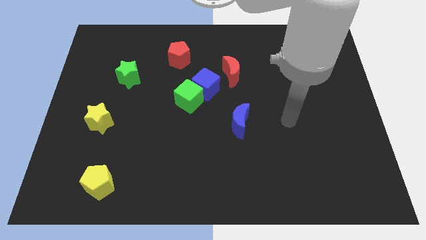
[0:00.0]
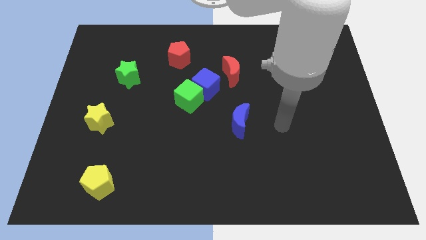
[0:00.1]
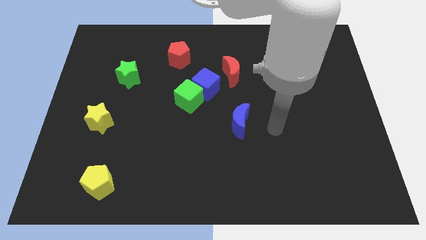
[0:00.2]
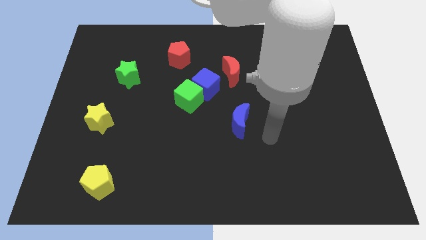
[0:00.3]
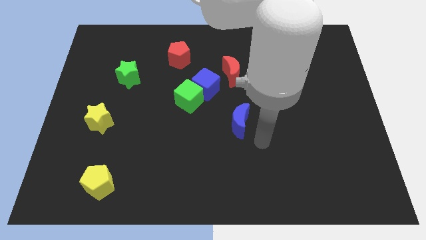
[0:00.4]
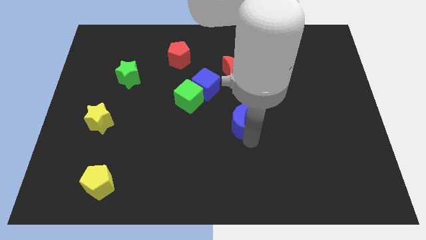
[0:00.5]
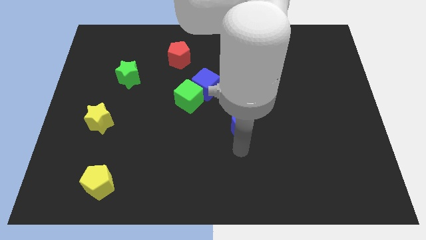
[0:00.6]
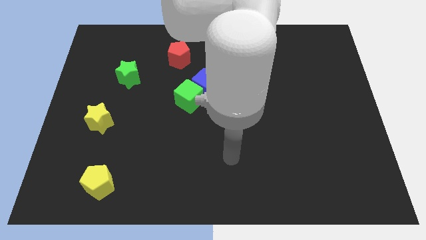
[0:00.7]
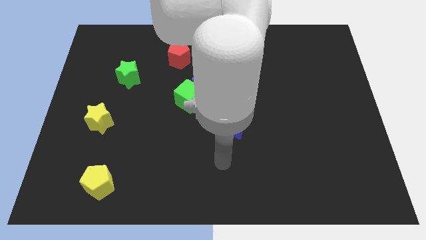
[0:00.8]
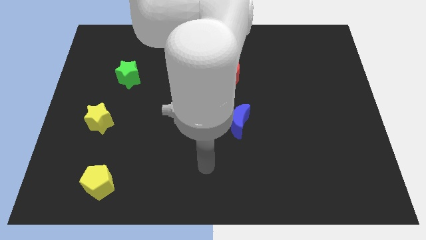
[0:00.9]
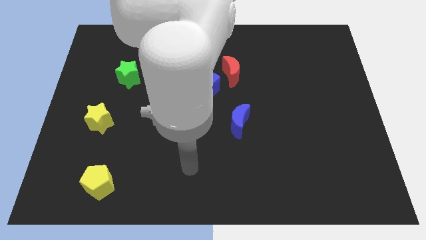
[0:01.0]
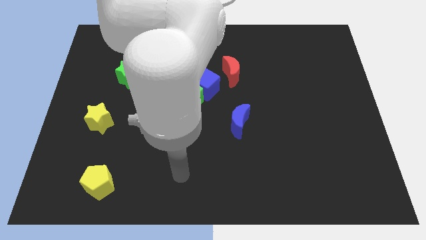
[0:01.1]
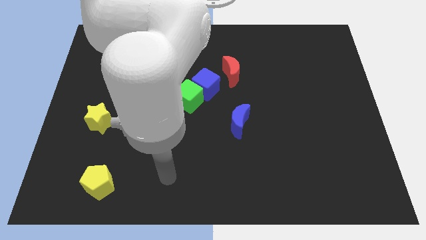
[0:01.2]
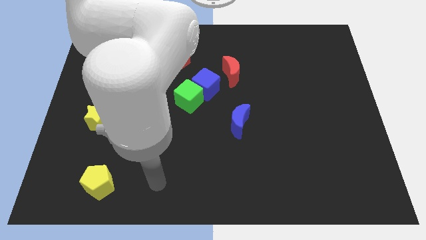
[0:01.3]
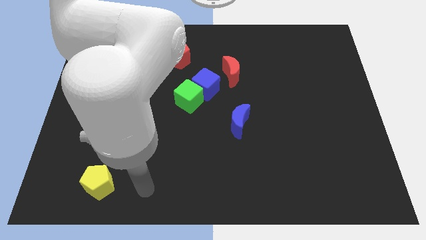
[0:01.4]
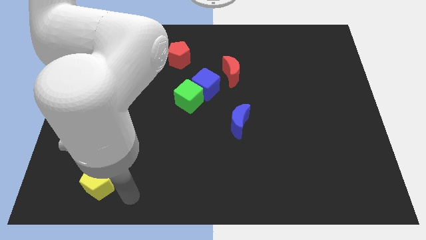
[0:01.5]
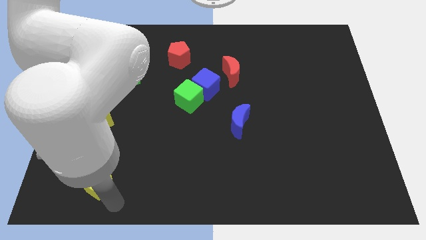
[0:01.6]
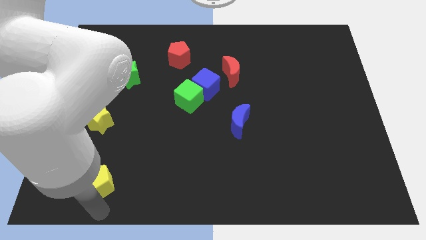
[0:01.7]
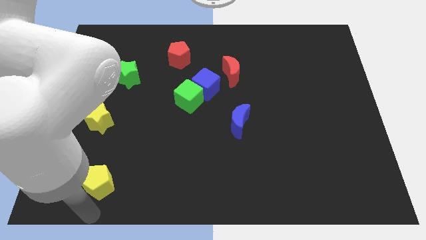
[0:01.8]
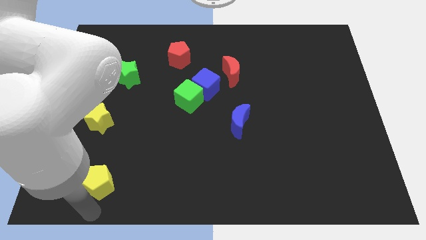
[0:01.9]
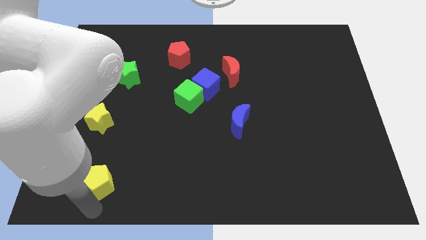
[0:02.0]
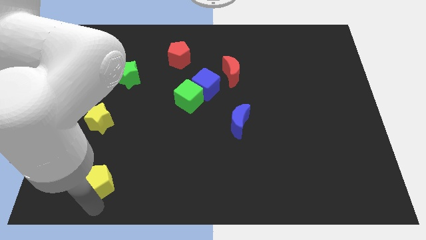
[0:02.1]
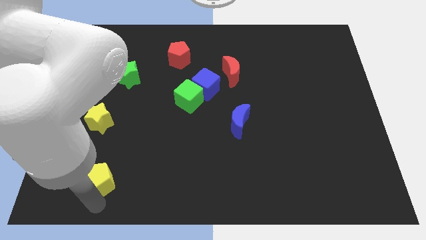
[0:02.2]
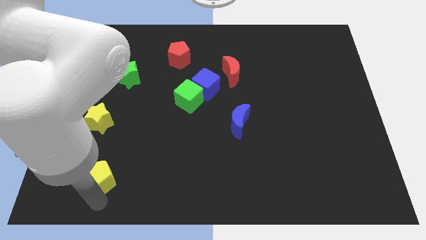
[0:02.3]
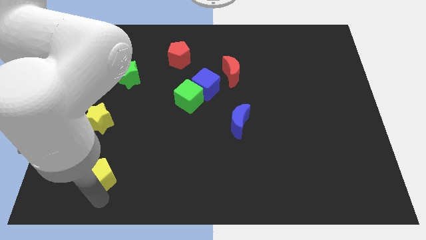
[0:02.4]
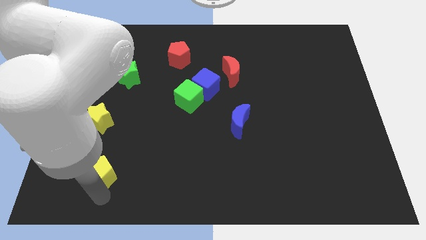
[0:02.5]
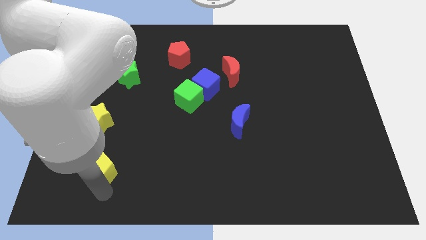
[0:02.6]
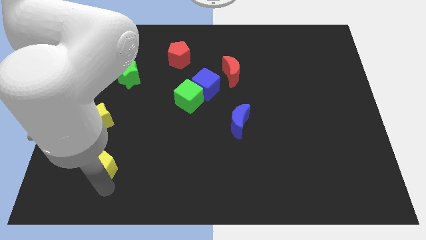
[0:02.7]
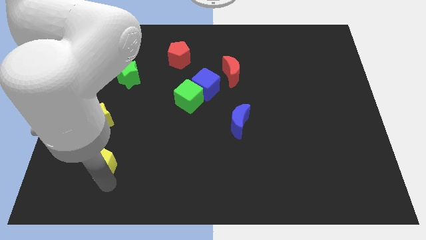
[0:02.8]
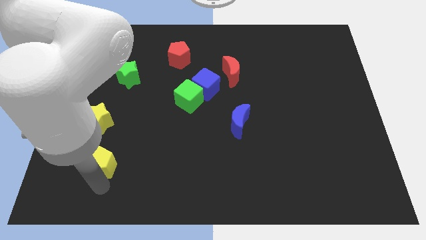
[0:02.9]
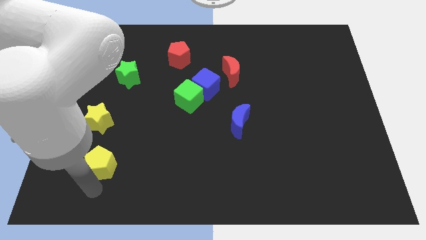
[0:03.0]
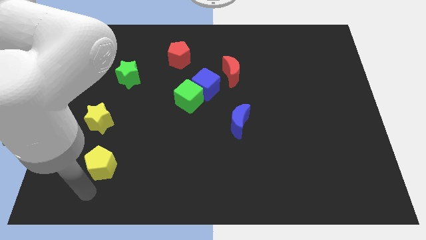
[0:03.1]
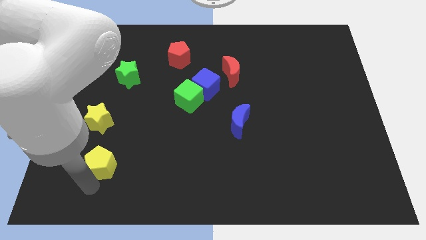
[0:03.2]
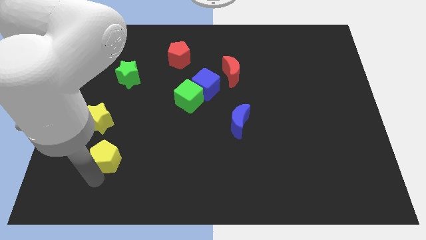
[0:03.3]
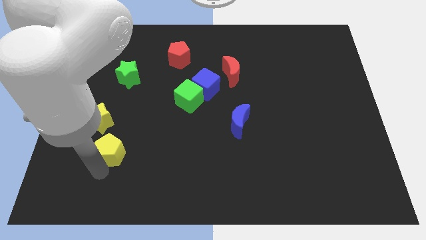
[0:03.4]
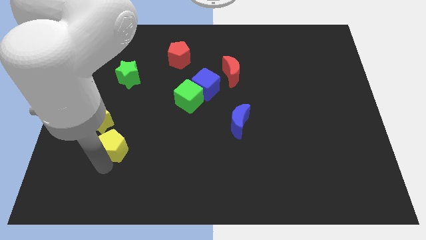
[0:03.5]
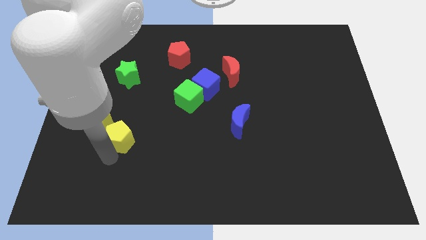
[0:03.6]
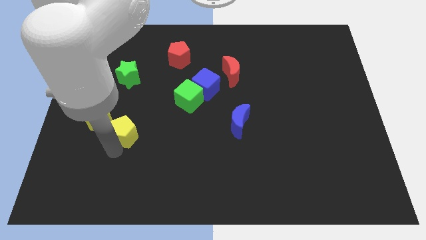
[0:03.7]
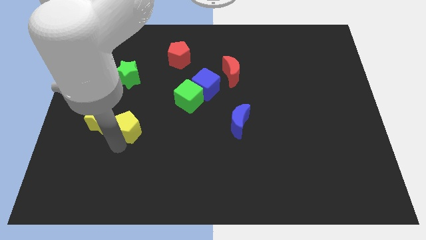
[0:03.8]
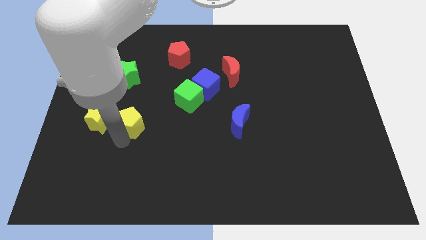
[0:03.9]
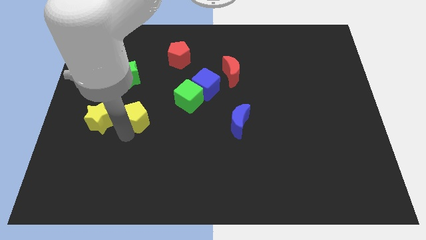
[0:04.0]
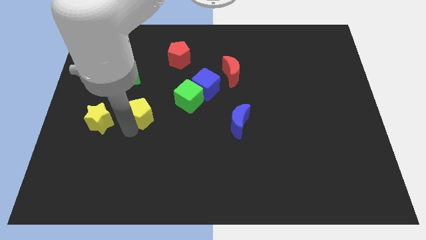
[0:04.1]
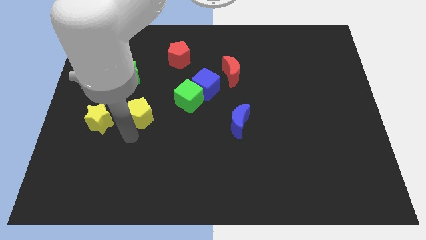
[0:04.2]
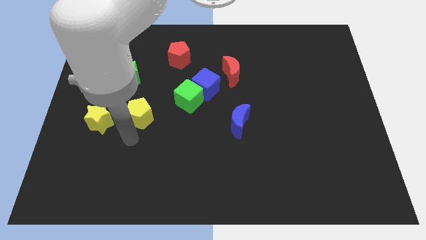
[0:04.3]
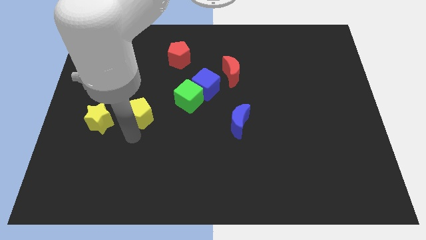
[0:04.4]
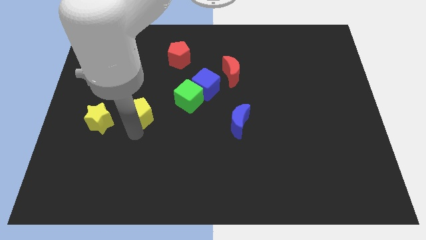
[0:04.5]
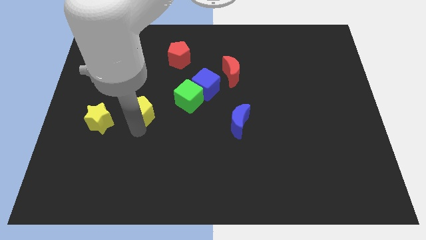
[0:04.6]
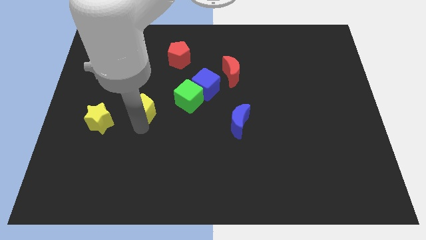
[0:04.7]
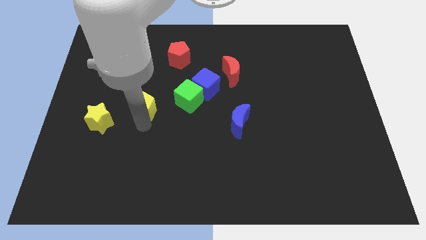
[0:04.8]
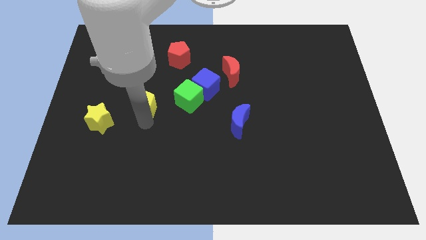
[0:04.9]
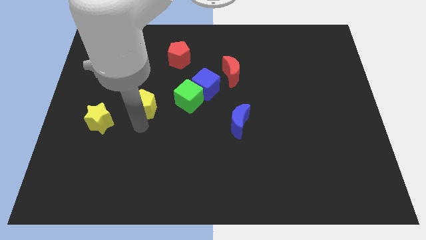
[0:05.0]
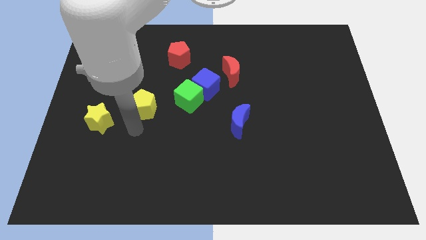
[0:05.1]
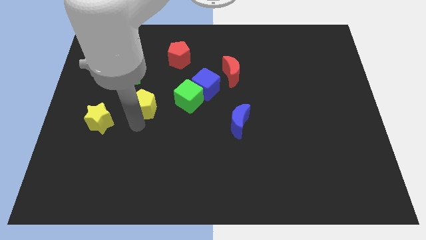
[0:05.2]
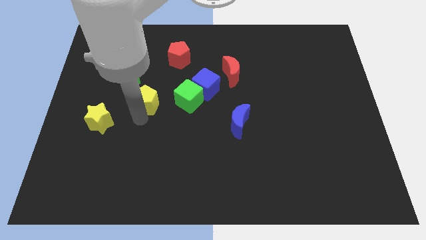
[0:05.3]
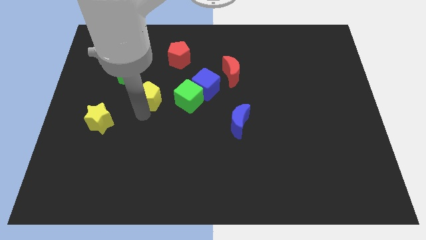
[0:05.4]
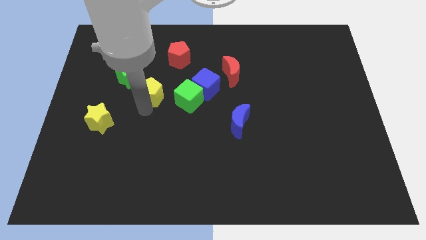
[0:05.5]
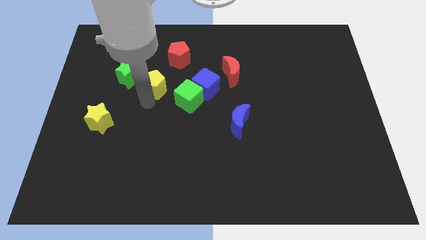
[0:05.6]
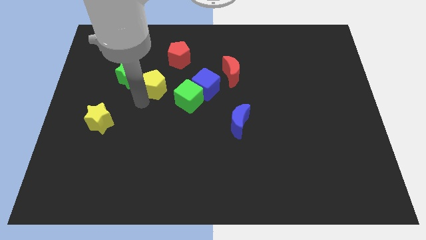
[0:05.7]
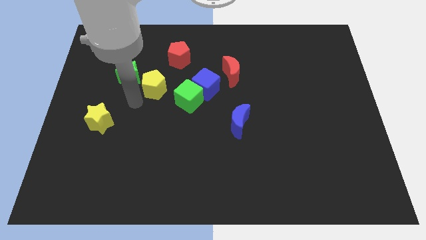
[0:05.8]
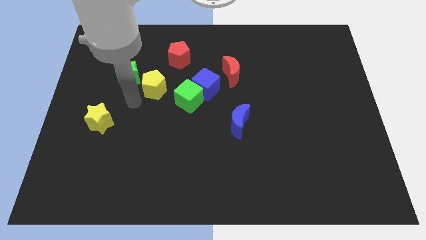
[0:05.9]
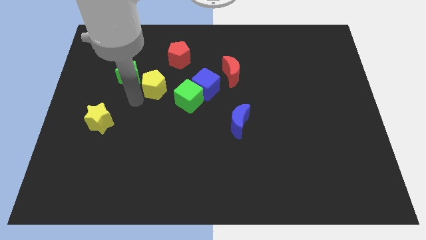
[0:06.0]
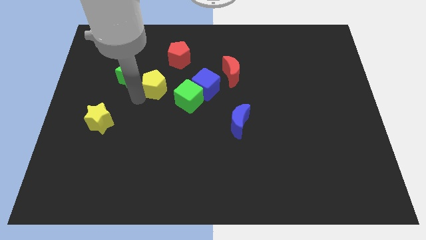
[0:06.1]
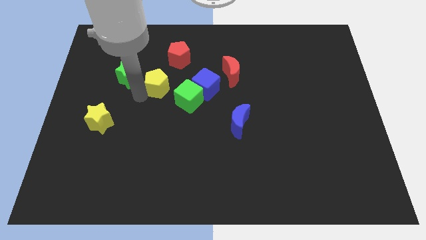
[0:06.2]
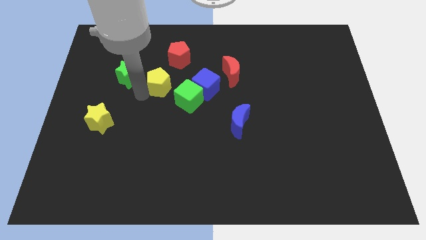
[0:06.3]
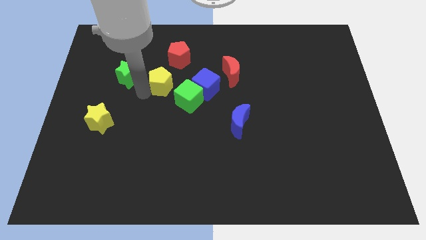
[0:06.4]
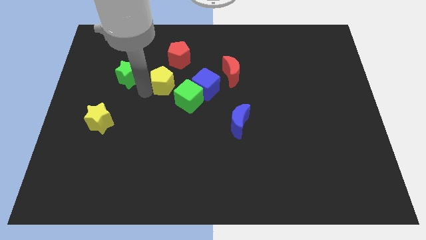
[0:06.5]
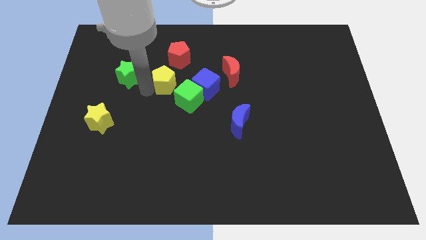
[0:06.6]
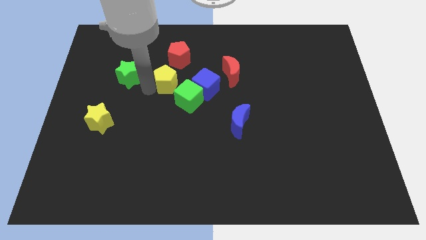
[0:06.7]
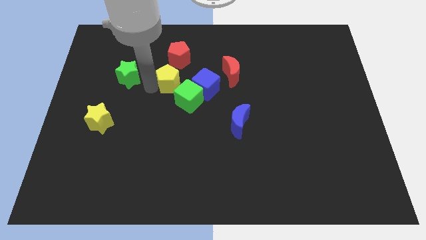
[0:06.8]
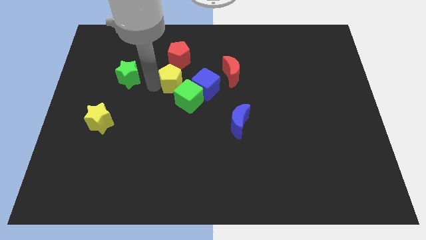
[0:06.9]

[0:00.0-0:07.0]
slide the yellow pentagon diagonally up and to the left of the blue cube
